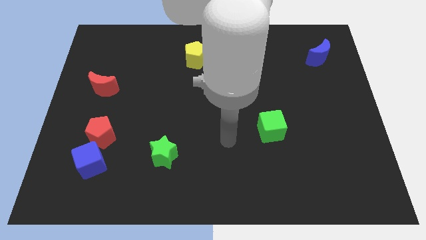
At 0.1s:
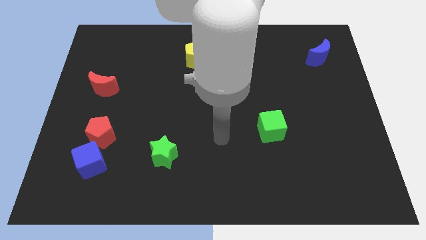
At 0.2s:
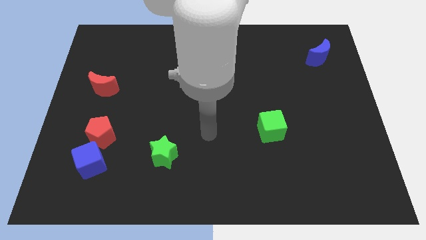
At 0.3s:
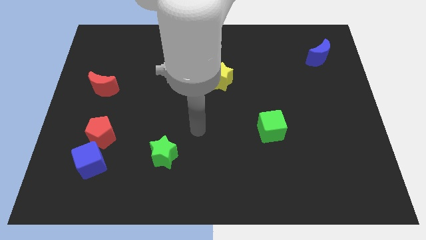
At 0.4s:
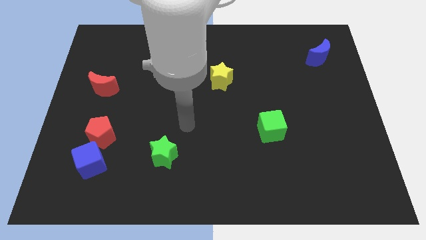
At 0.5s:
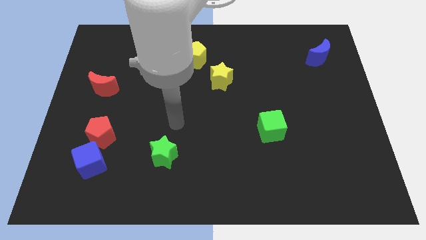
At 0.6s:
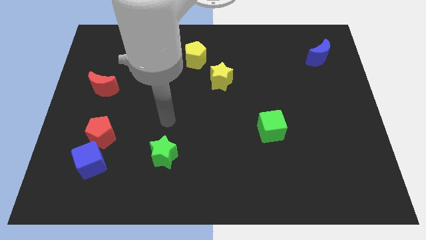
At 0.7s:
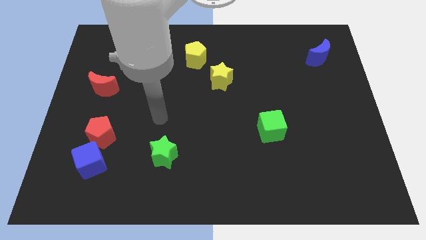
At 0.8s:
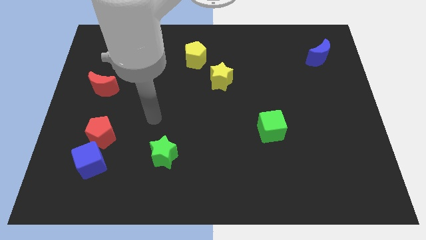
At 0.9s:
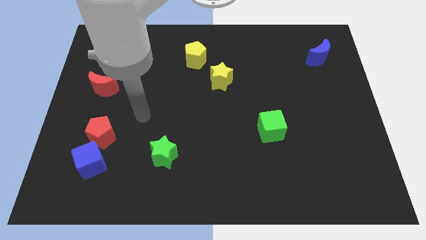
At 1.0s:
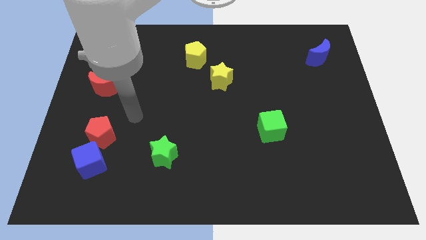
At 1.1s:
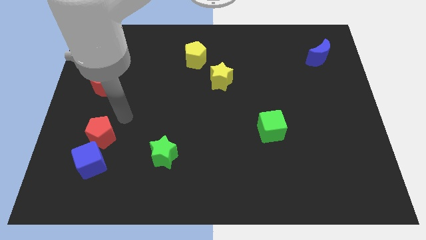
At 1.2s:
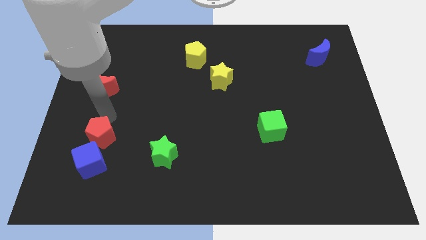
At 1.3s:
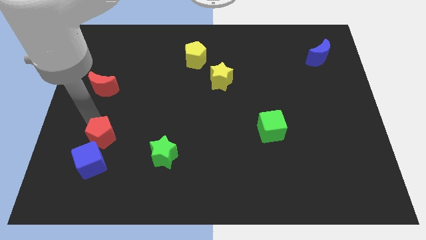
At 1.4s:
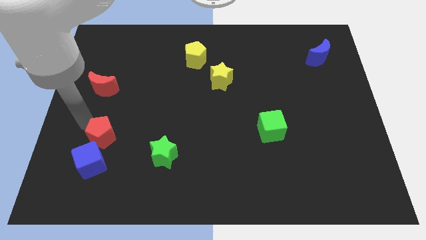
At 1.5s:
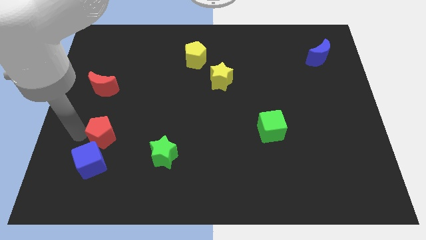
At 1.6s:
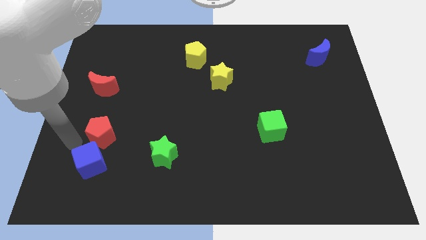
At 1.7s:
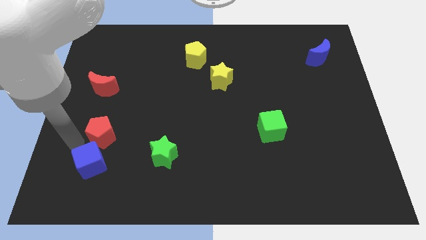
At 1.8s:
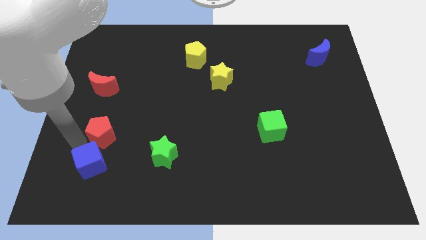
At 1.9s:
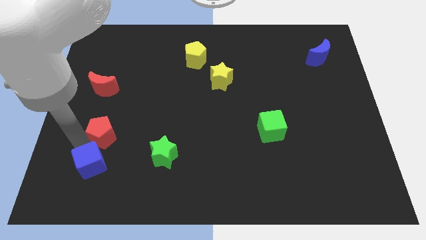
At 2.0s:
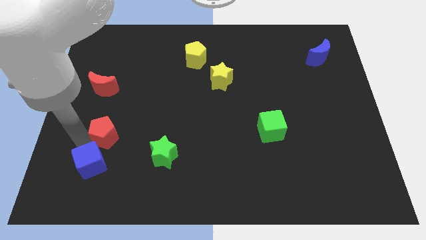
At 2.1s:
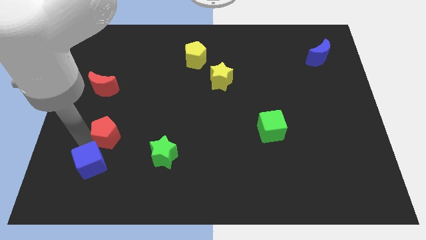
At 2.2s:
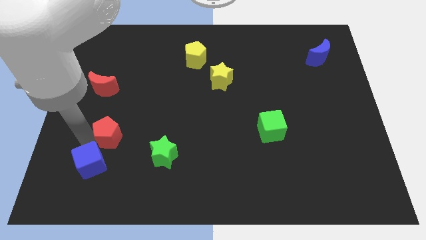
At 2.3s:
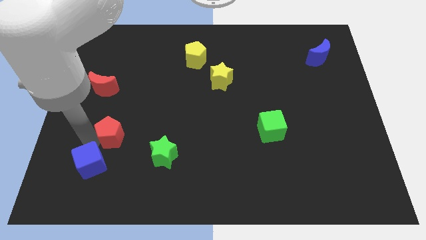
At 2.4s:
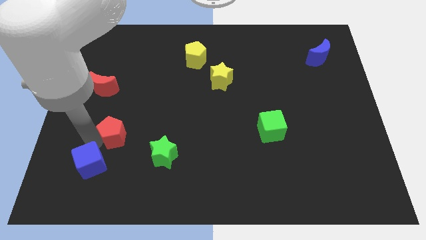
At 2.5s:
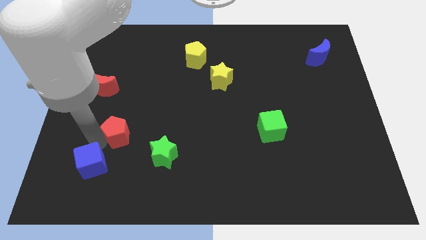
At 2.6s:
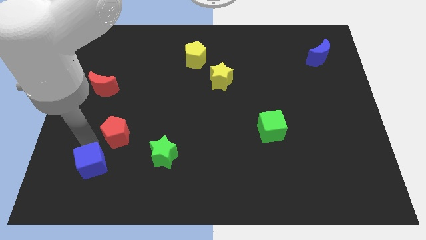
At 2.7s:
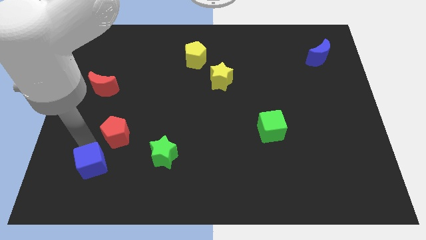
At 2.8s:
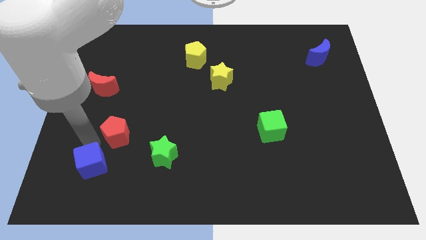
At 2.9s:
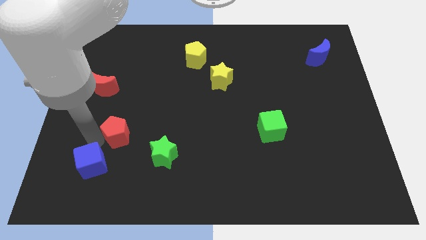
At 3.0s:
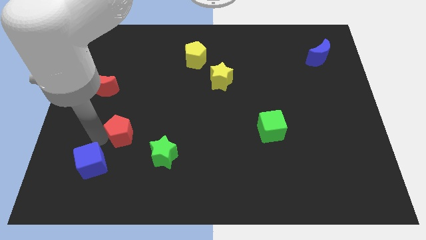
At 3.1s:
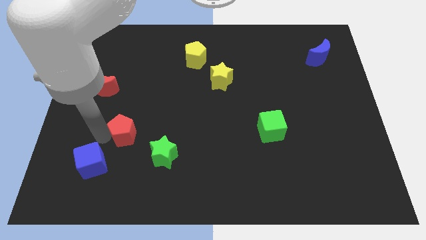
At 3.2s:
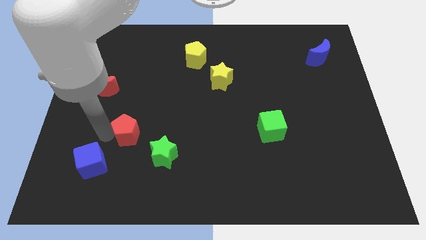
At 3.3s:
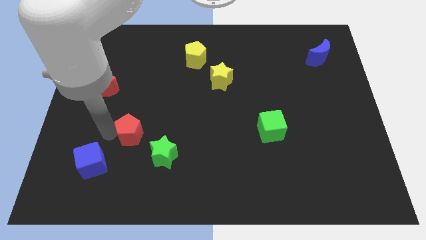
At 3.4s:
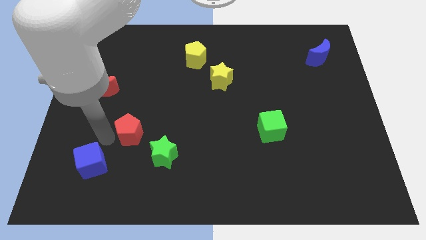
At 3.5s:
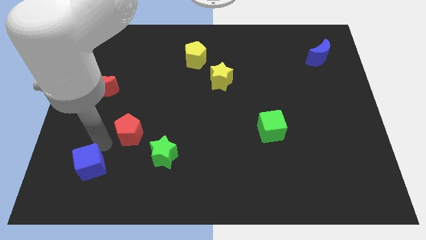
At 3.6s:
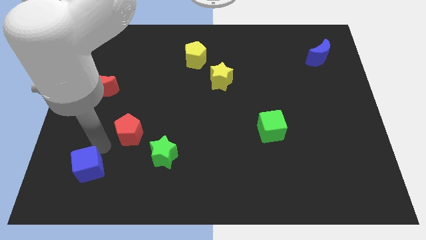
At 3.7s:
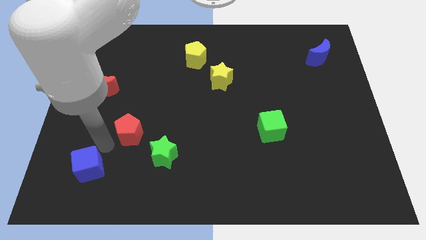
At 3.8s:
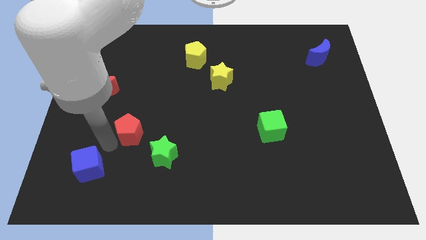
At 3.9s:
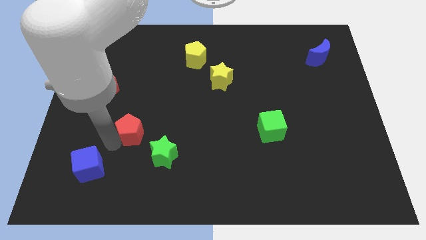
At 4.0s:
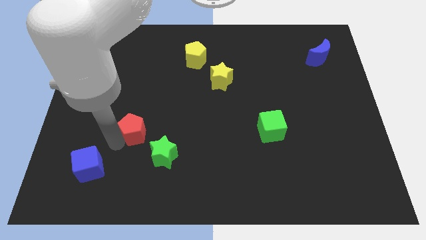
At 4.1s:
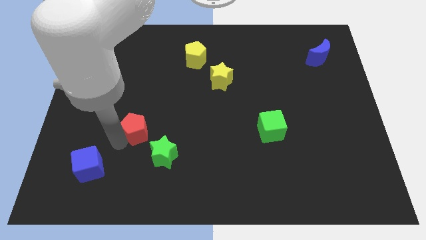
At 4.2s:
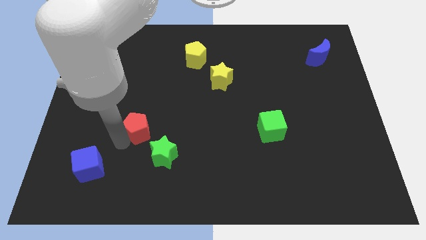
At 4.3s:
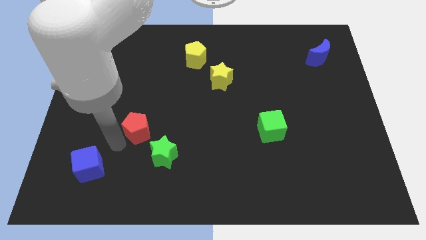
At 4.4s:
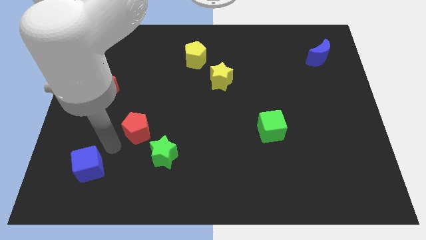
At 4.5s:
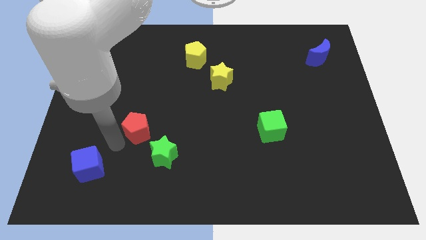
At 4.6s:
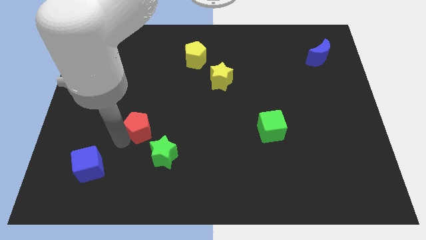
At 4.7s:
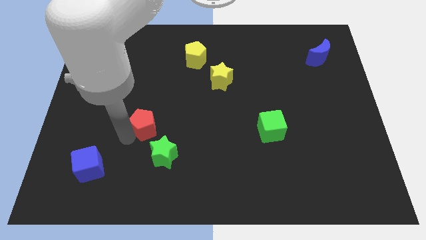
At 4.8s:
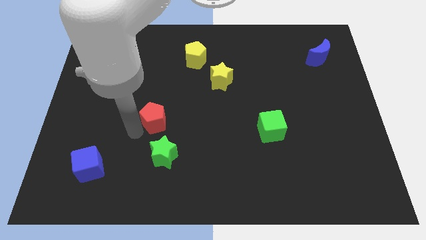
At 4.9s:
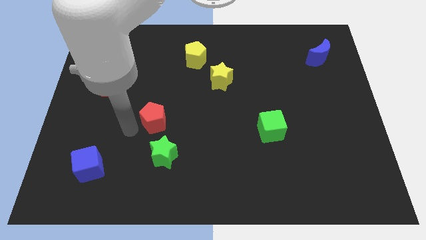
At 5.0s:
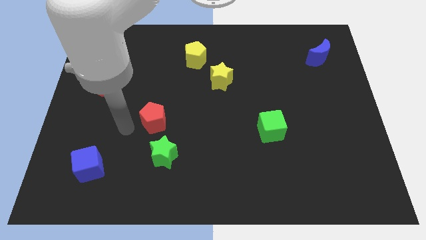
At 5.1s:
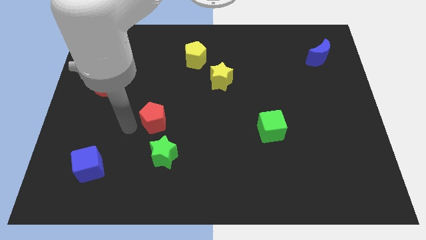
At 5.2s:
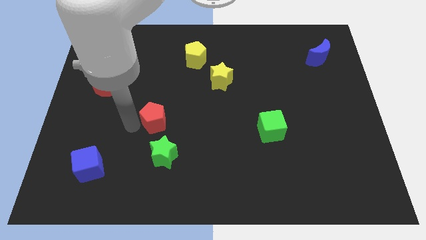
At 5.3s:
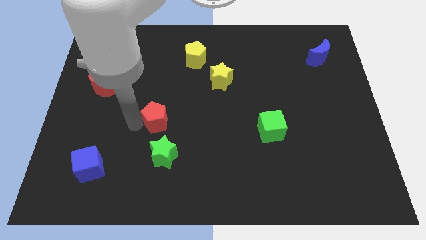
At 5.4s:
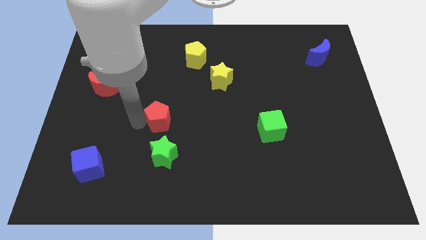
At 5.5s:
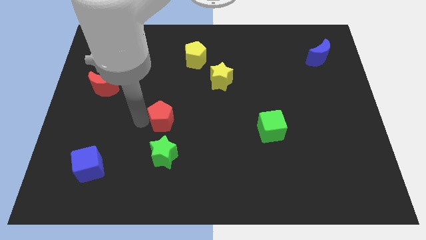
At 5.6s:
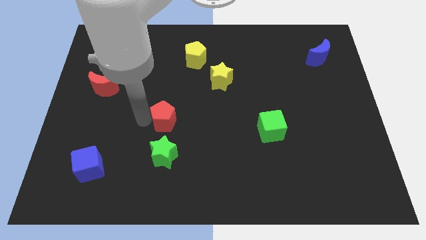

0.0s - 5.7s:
move the red pentagon to the center of the board

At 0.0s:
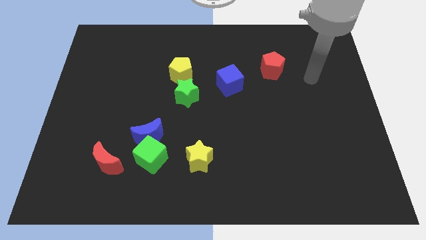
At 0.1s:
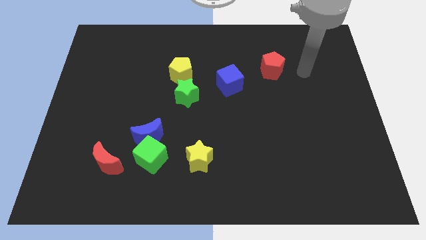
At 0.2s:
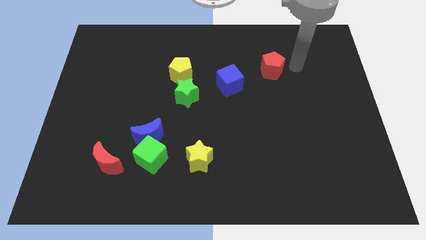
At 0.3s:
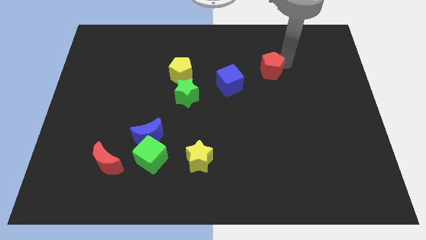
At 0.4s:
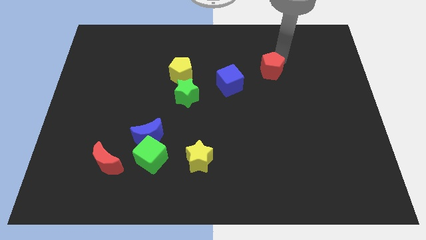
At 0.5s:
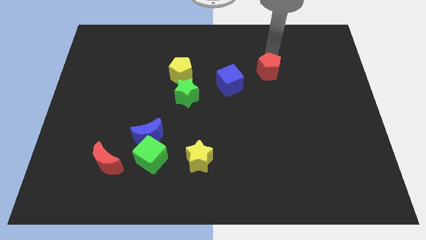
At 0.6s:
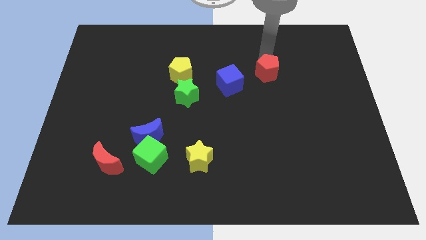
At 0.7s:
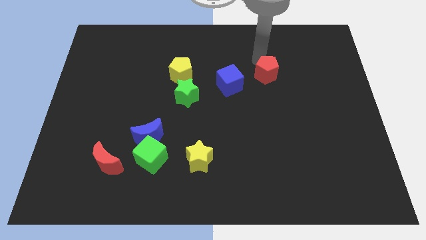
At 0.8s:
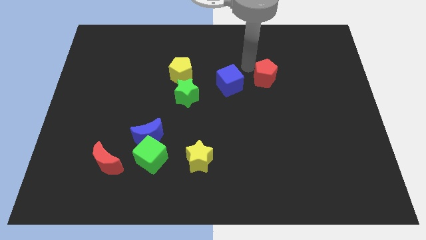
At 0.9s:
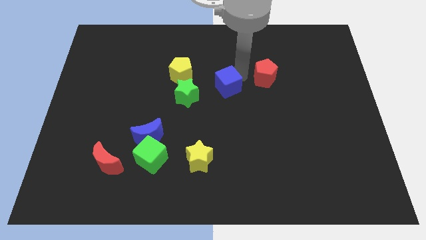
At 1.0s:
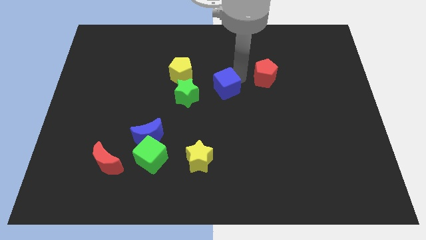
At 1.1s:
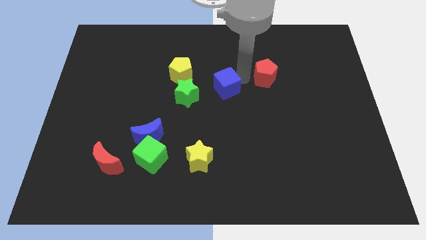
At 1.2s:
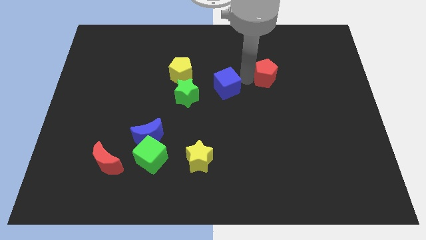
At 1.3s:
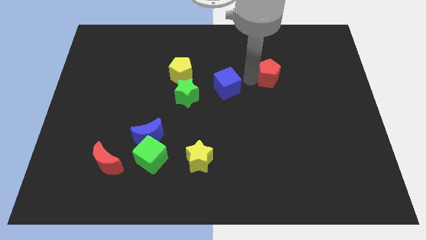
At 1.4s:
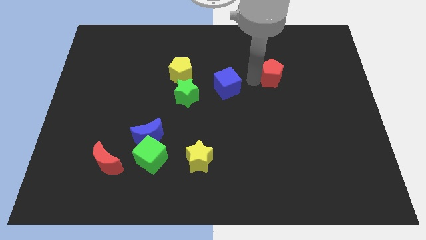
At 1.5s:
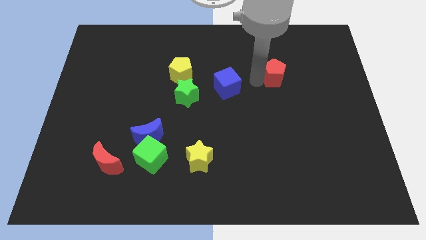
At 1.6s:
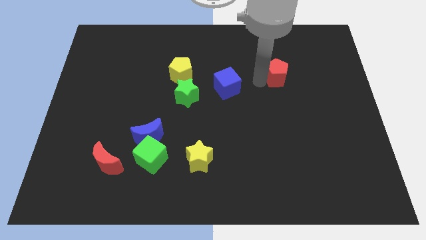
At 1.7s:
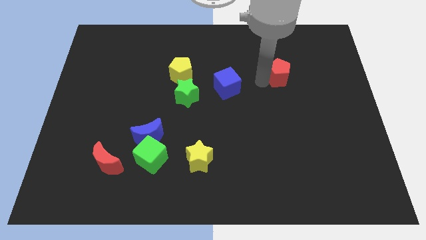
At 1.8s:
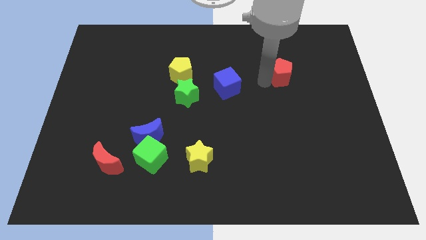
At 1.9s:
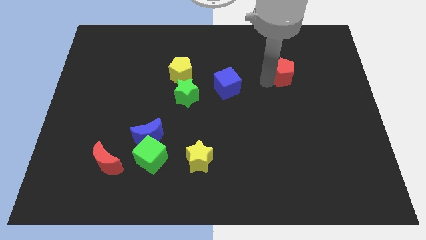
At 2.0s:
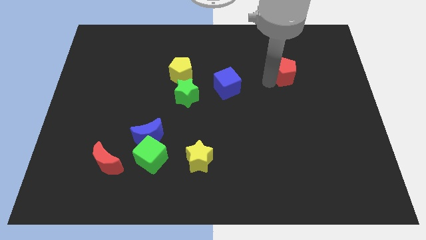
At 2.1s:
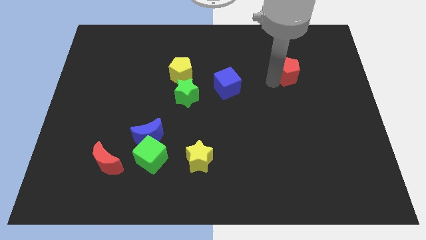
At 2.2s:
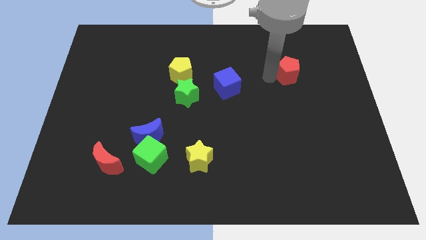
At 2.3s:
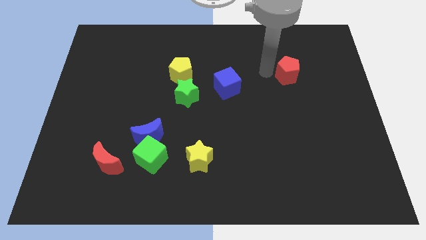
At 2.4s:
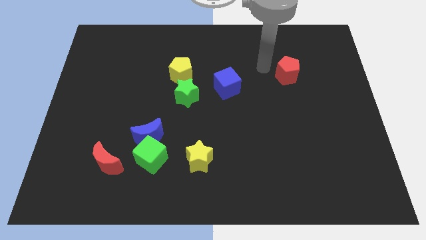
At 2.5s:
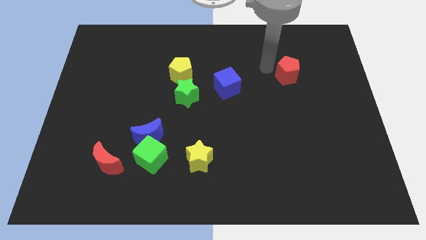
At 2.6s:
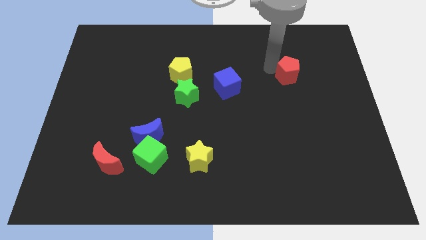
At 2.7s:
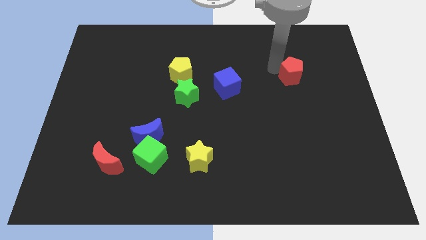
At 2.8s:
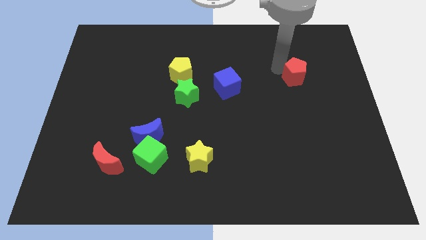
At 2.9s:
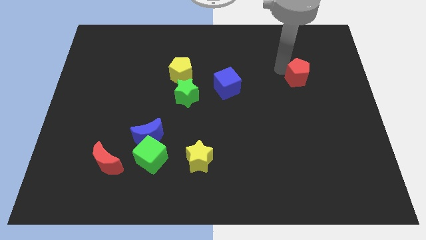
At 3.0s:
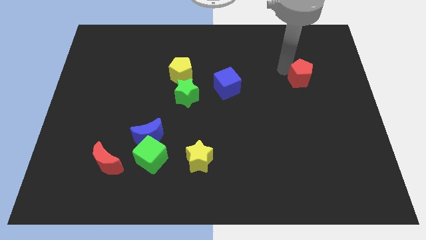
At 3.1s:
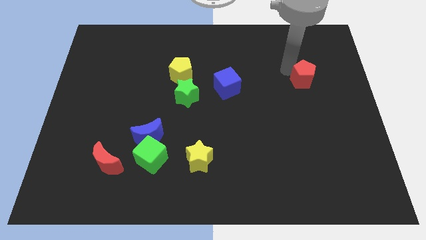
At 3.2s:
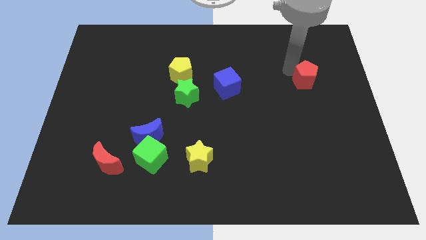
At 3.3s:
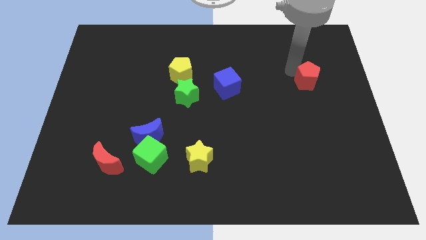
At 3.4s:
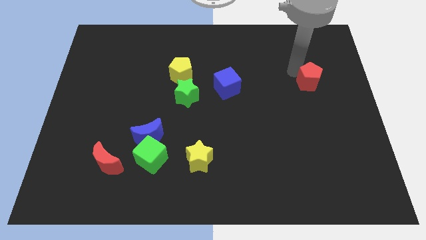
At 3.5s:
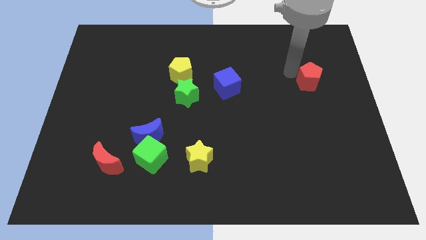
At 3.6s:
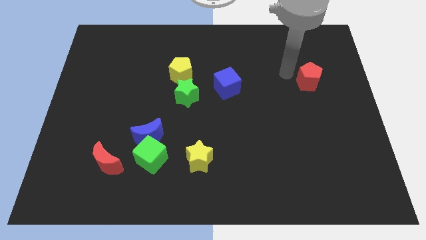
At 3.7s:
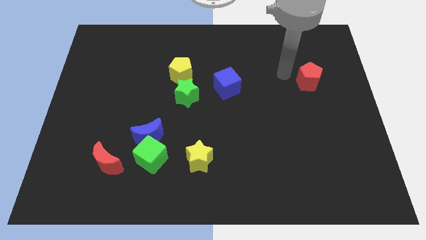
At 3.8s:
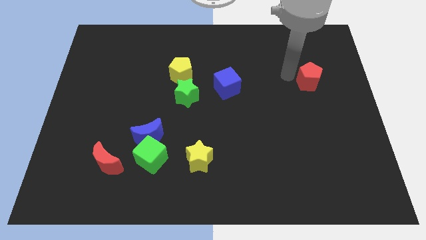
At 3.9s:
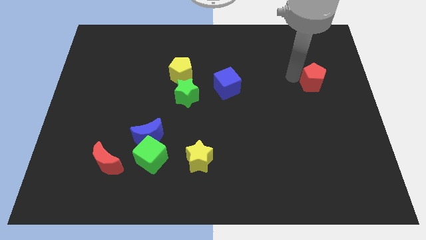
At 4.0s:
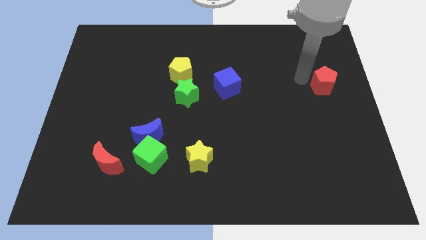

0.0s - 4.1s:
push the red pentagon to the center right
